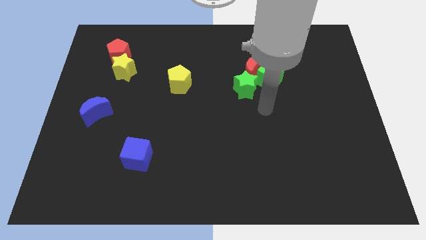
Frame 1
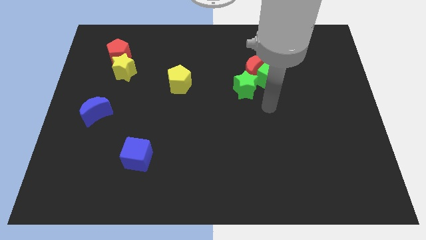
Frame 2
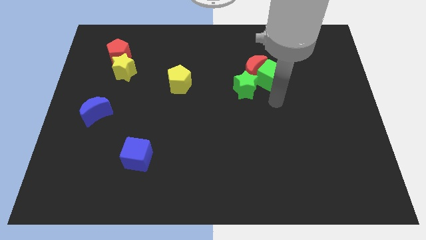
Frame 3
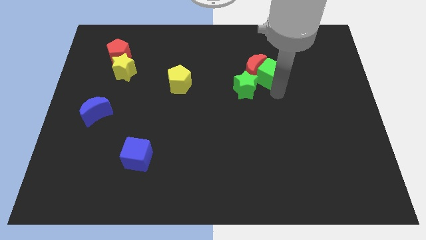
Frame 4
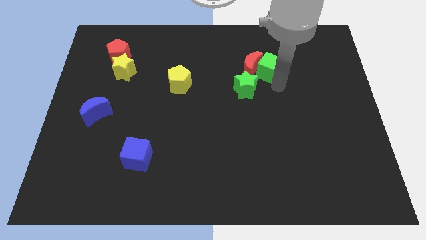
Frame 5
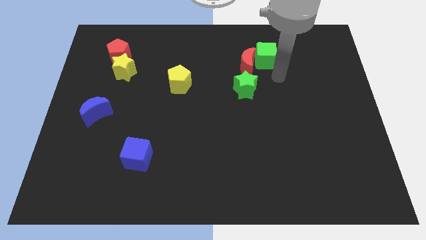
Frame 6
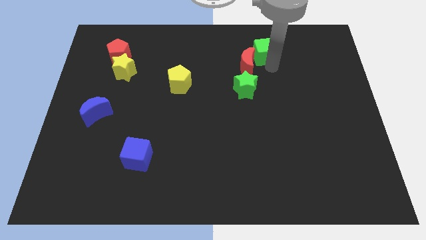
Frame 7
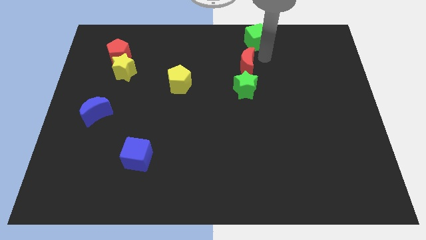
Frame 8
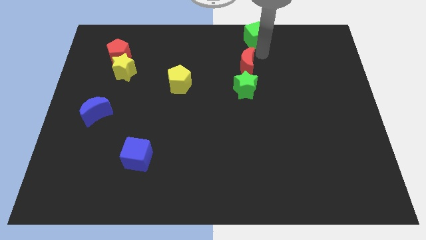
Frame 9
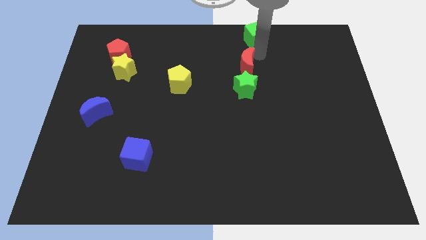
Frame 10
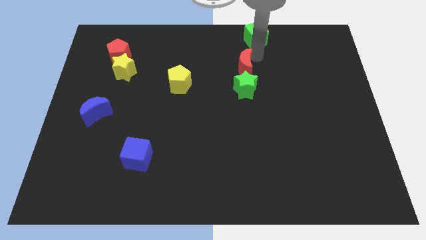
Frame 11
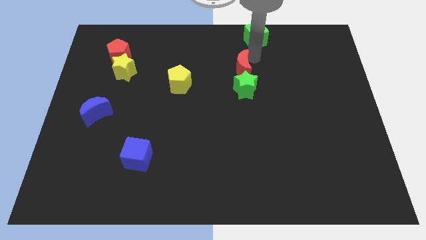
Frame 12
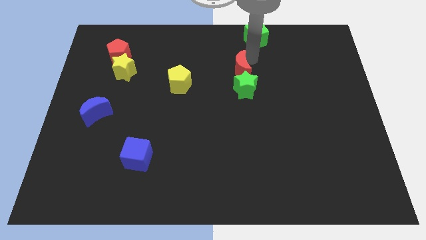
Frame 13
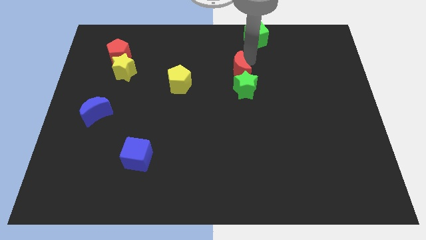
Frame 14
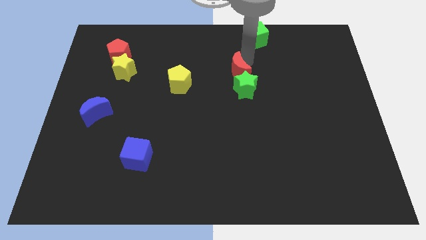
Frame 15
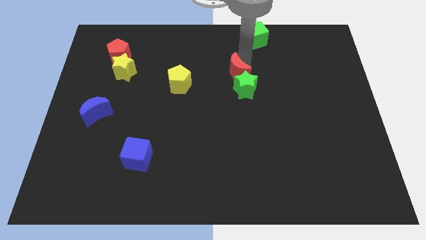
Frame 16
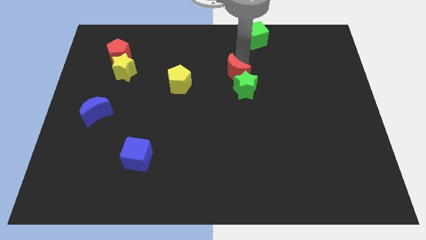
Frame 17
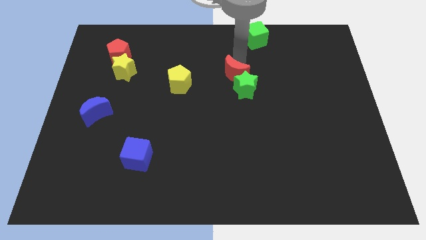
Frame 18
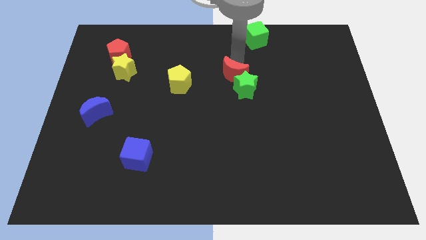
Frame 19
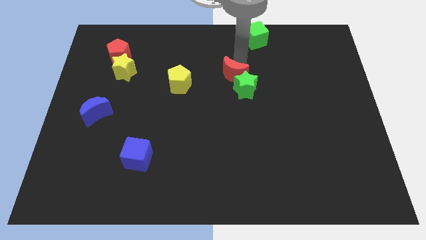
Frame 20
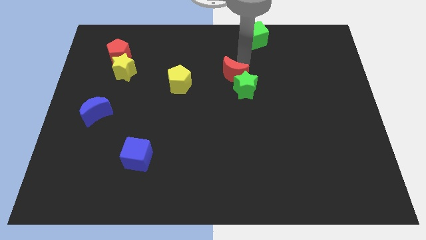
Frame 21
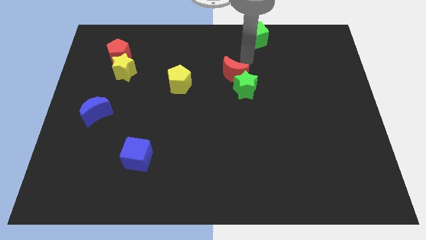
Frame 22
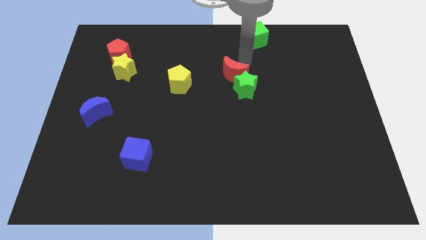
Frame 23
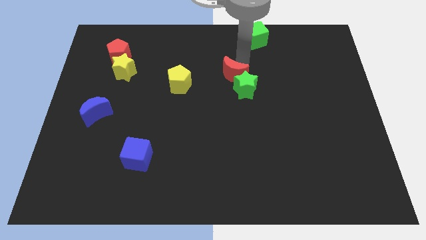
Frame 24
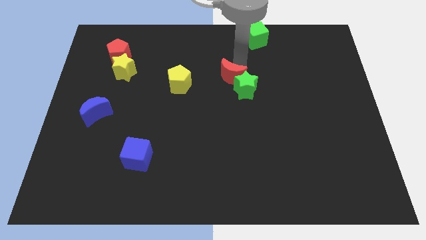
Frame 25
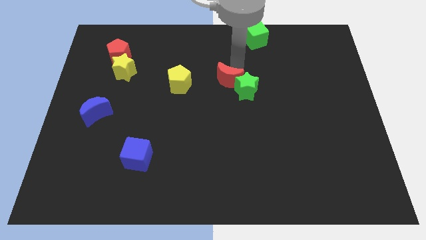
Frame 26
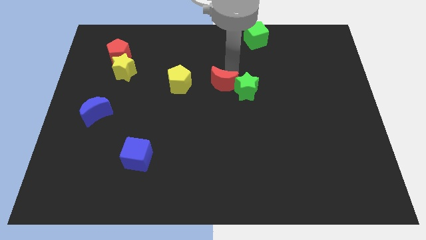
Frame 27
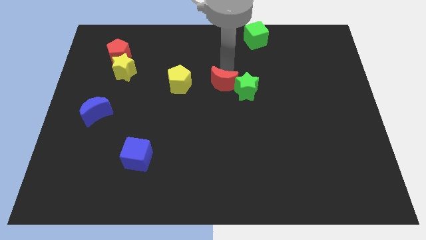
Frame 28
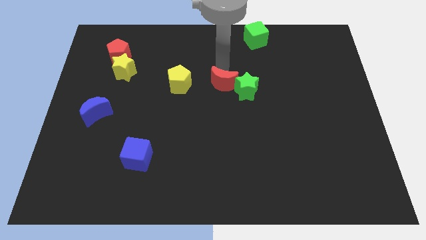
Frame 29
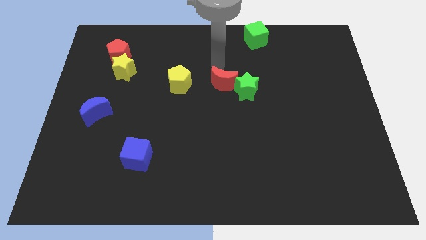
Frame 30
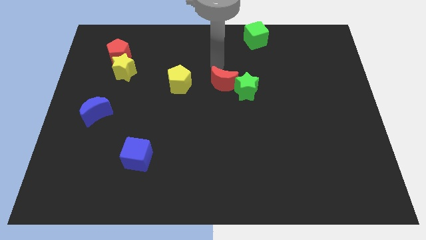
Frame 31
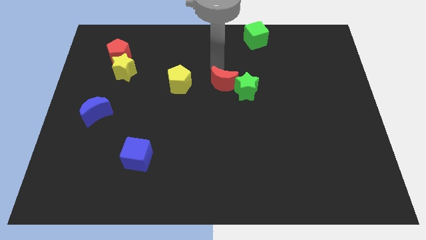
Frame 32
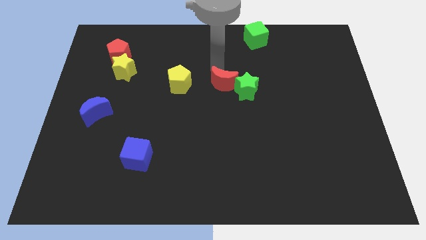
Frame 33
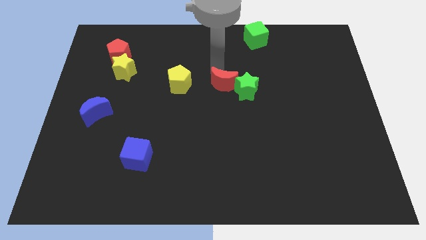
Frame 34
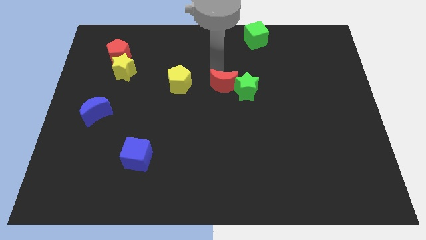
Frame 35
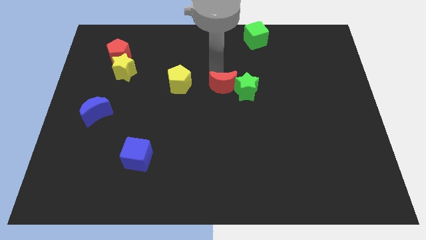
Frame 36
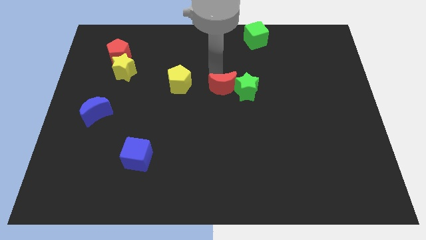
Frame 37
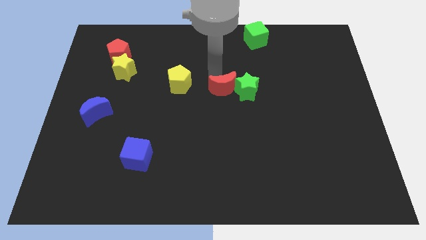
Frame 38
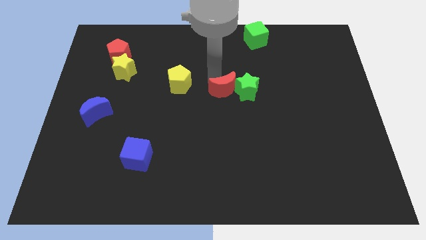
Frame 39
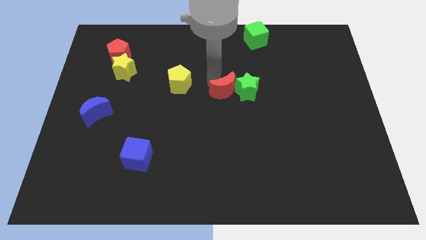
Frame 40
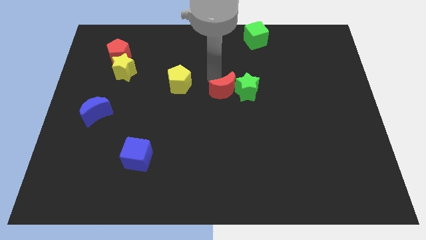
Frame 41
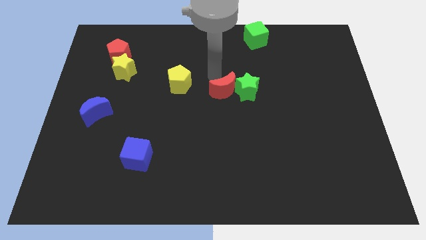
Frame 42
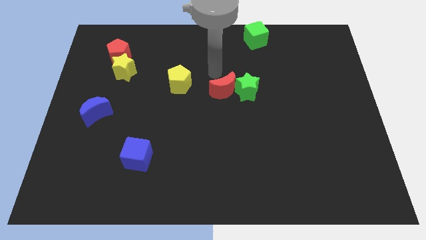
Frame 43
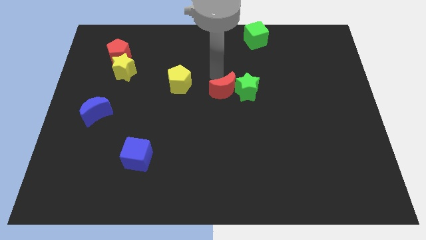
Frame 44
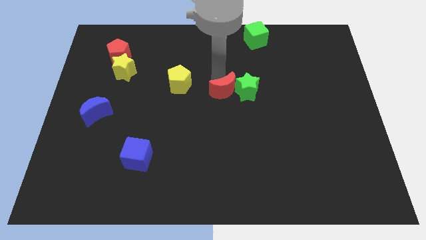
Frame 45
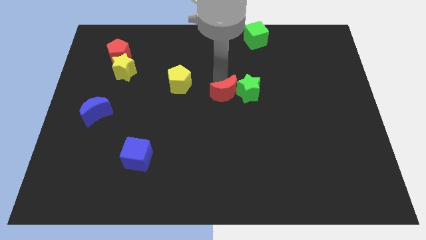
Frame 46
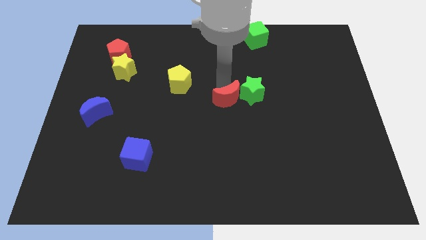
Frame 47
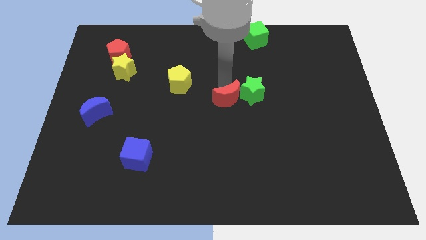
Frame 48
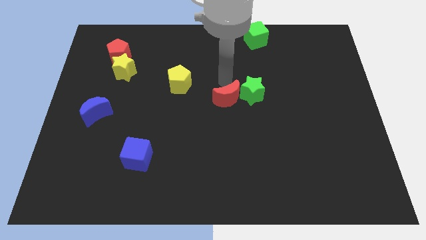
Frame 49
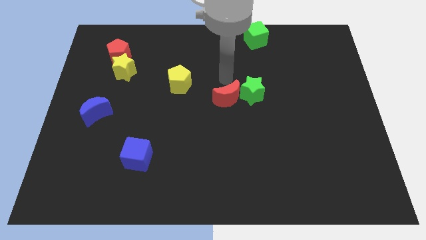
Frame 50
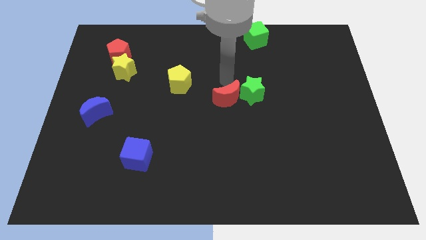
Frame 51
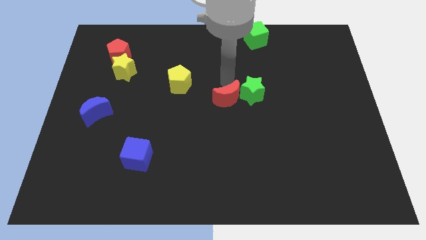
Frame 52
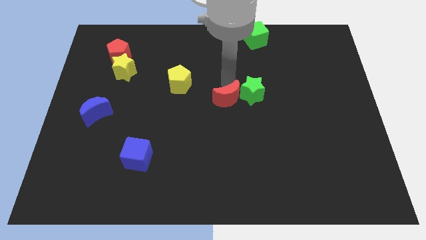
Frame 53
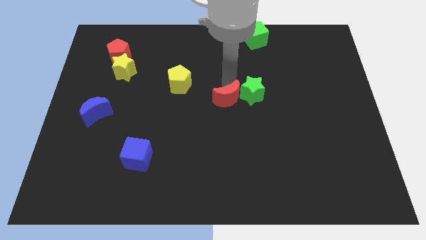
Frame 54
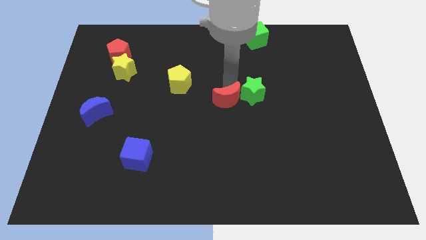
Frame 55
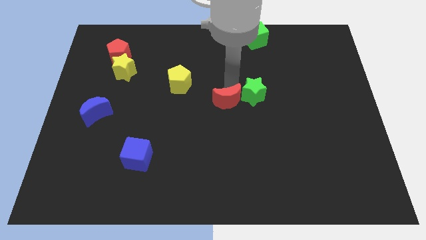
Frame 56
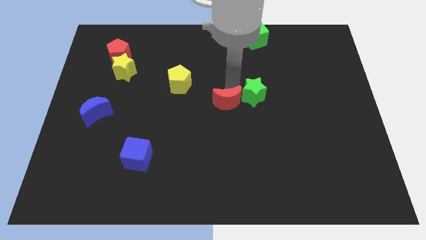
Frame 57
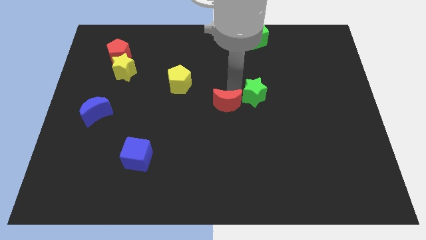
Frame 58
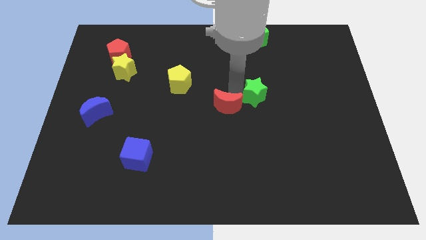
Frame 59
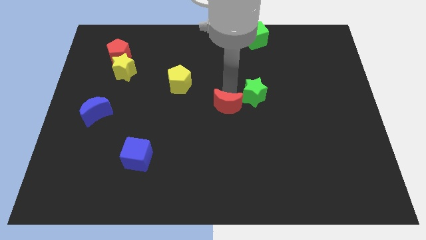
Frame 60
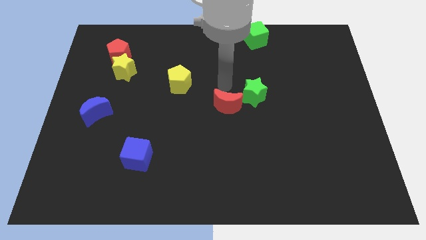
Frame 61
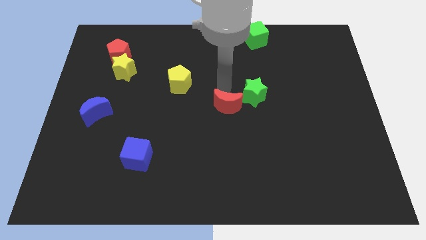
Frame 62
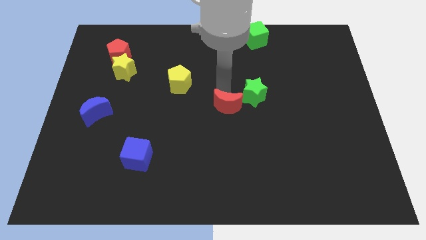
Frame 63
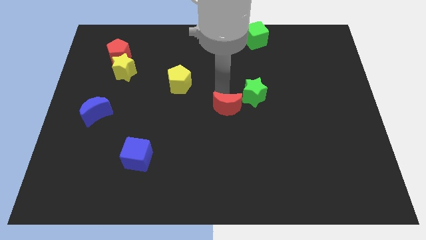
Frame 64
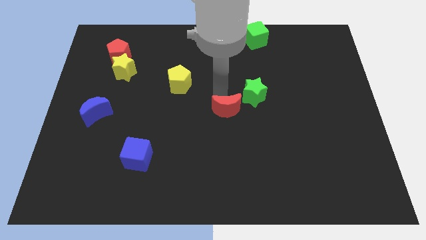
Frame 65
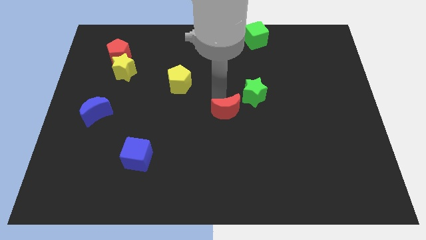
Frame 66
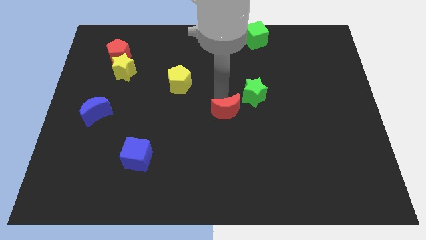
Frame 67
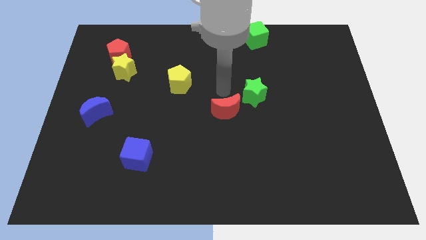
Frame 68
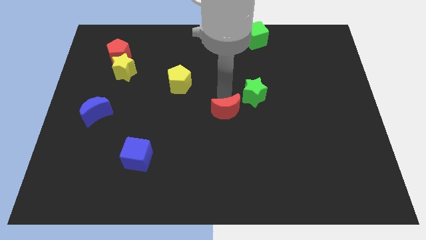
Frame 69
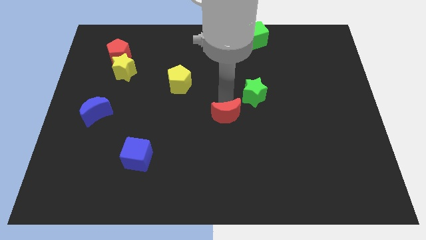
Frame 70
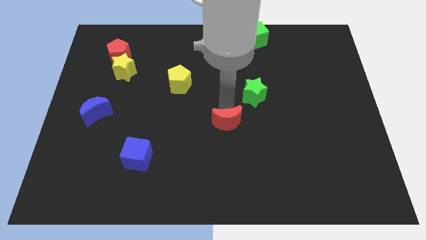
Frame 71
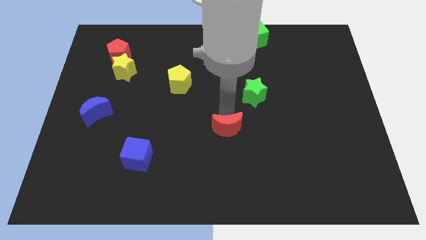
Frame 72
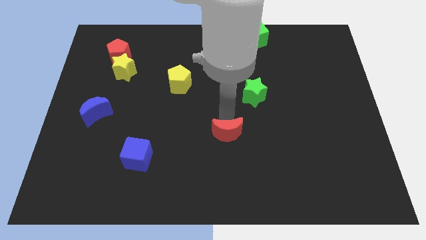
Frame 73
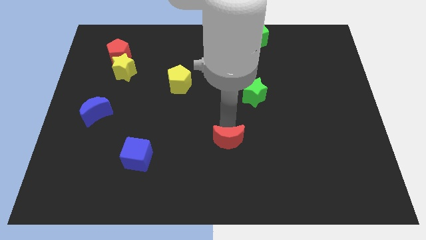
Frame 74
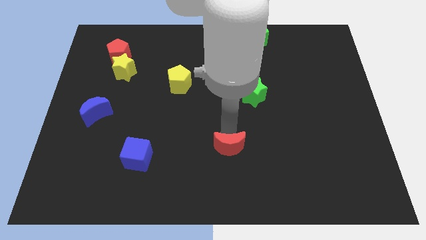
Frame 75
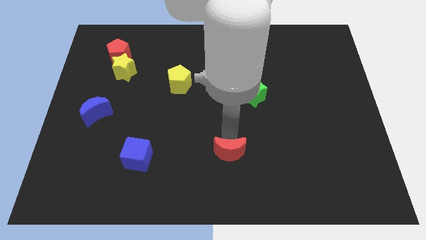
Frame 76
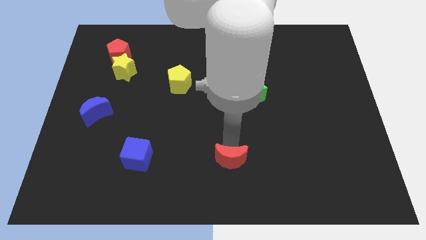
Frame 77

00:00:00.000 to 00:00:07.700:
move the red moon to the bottom side
